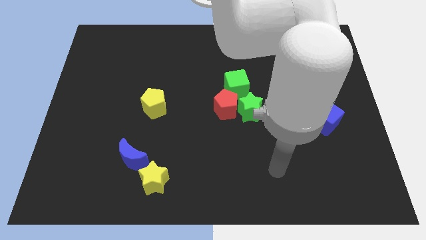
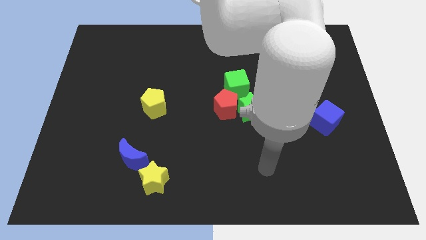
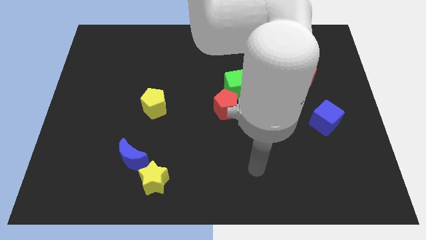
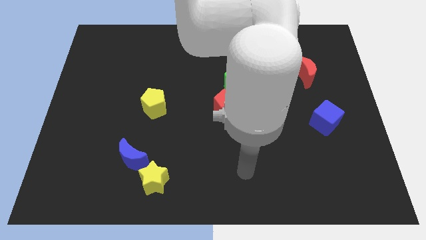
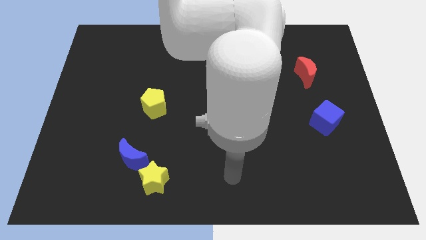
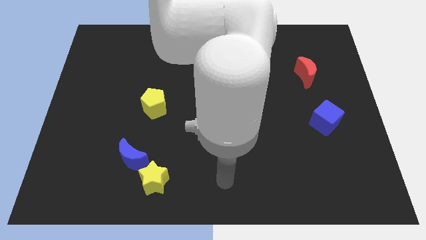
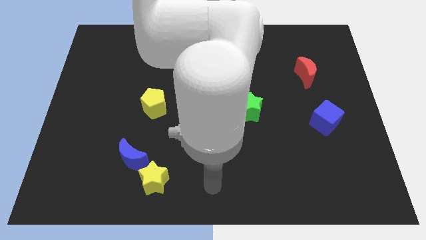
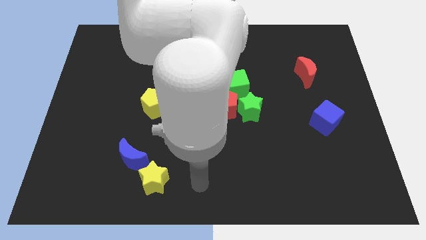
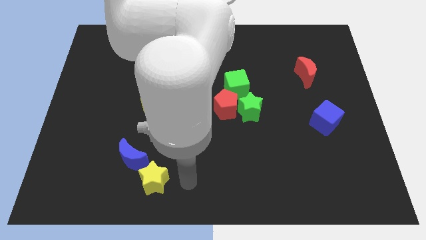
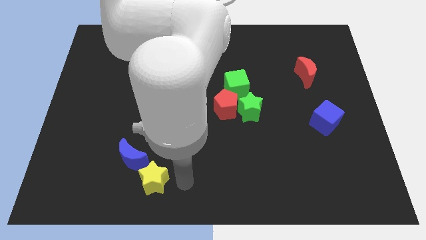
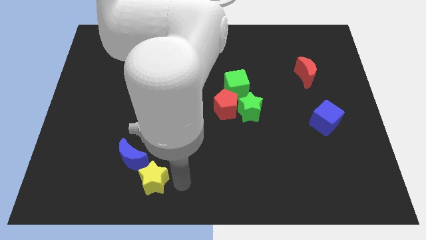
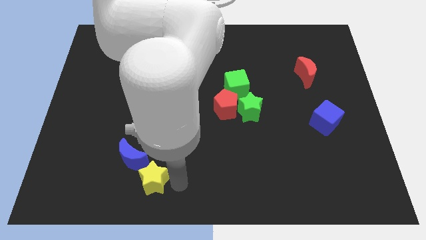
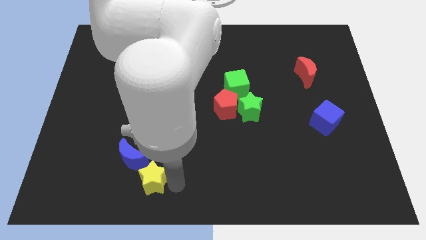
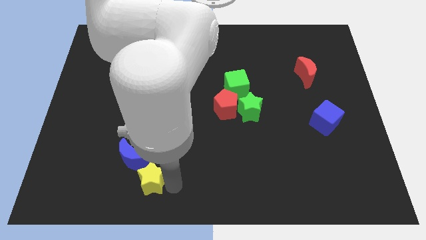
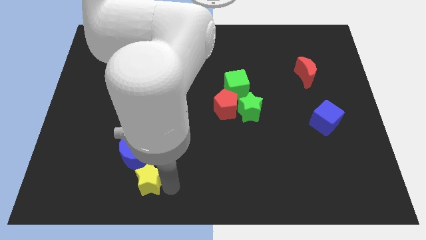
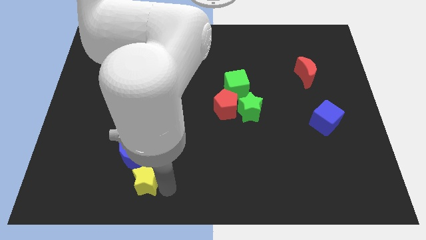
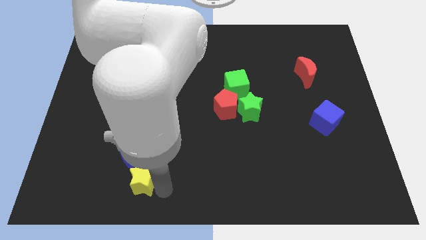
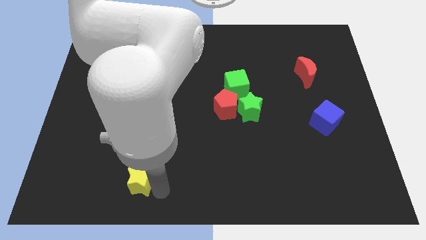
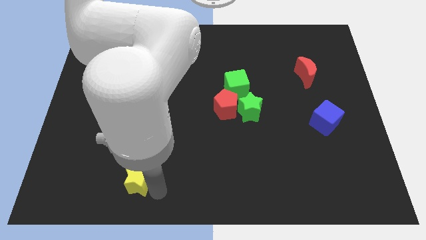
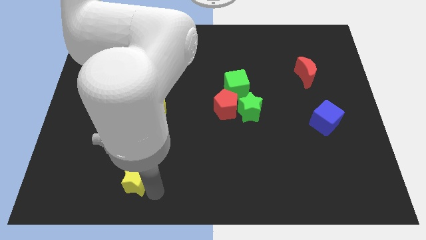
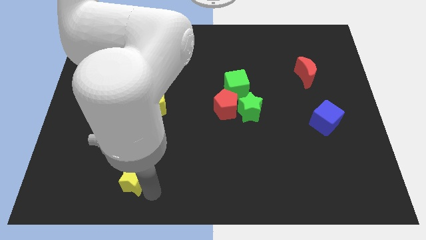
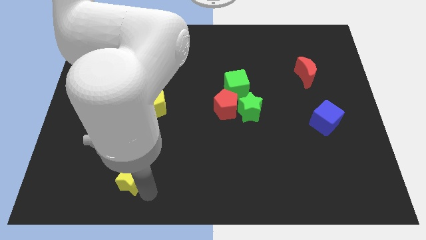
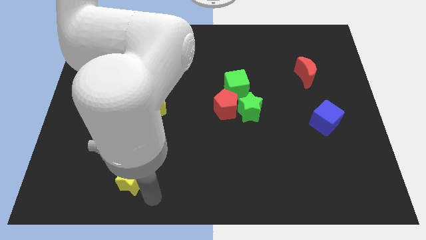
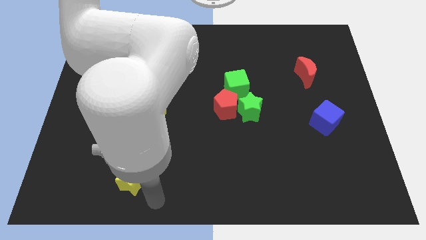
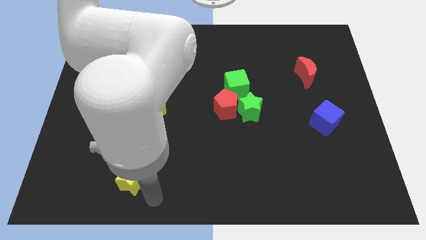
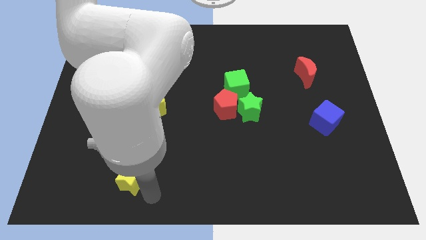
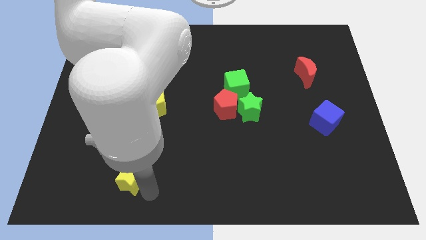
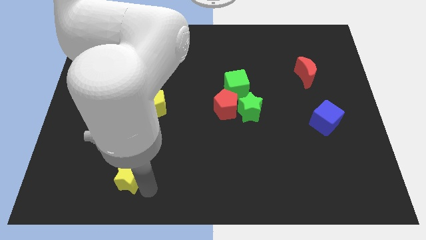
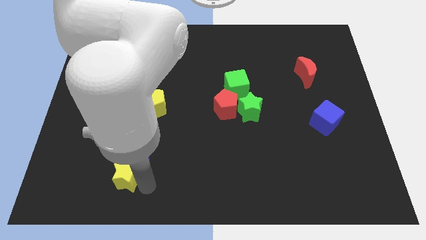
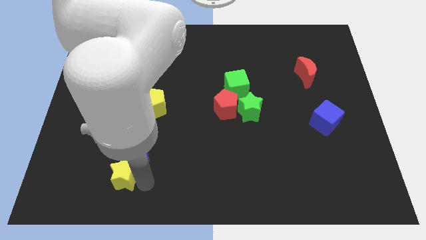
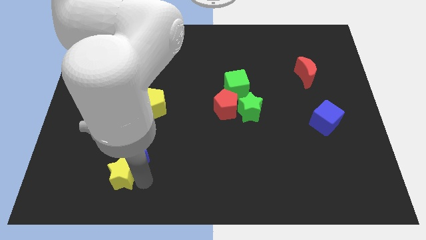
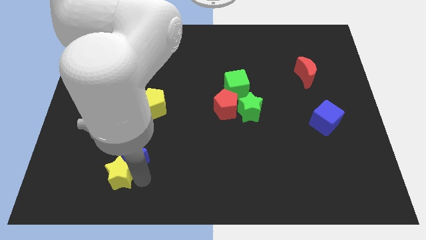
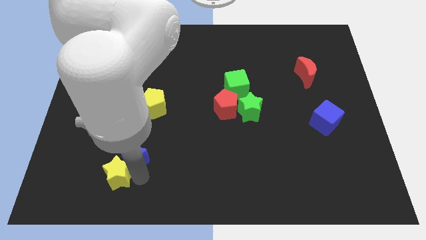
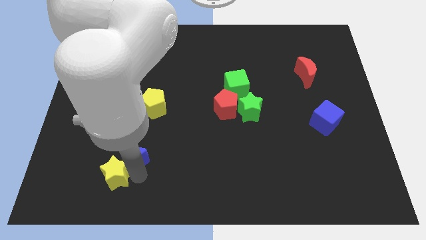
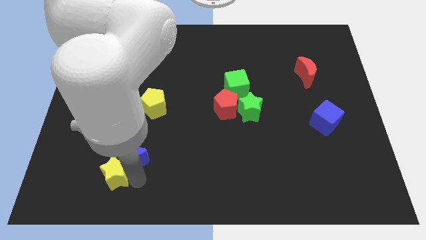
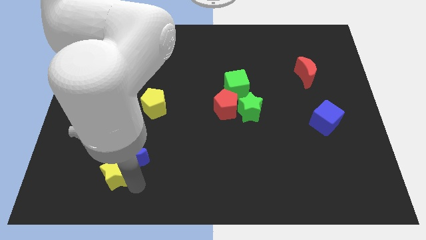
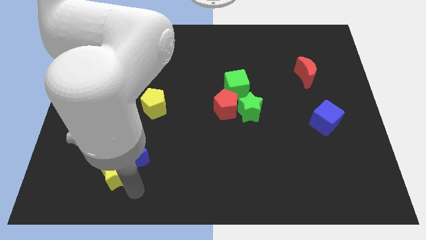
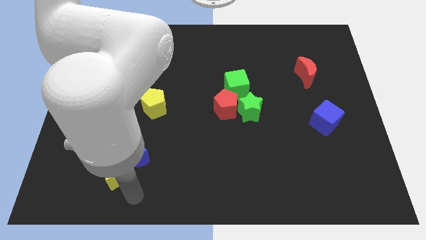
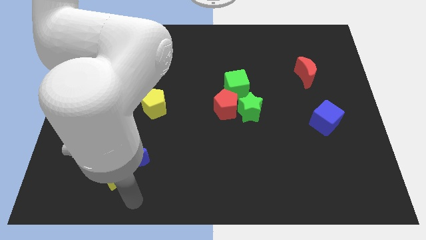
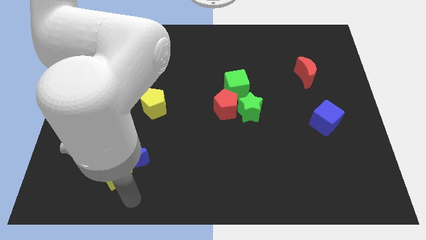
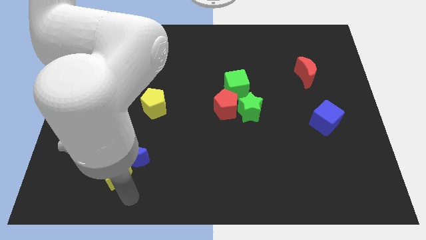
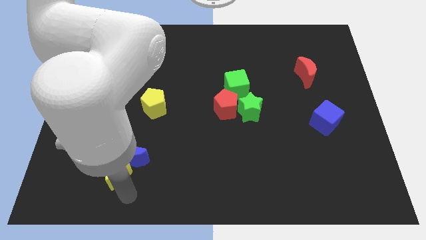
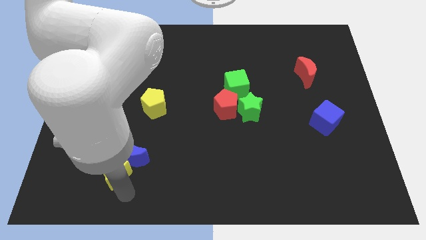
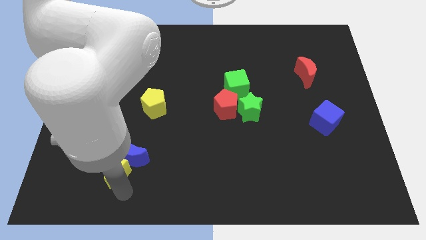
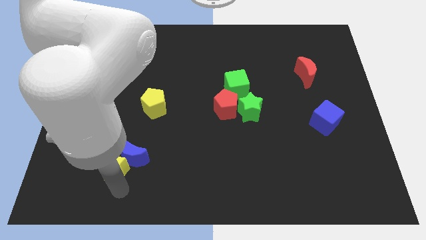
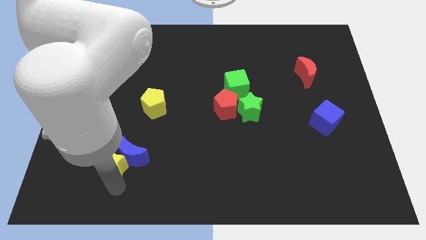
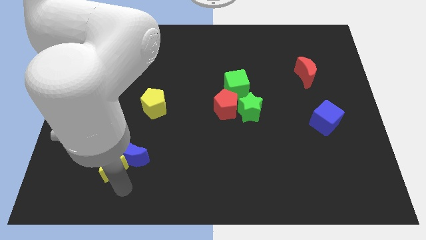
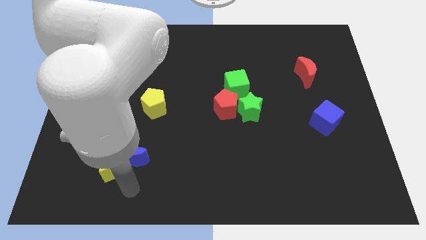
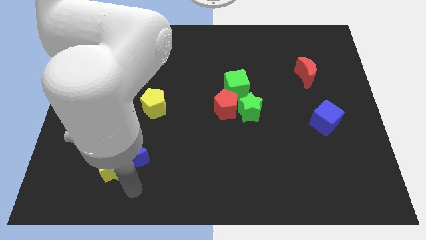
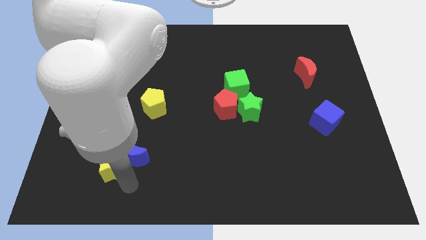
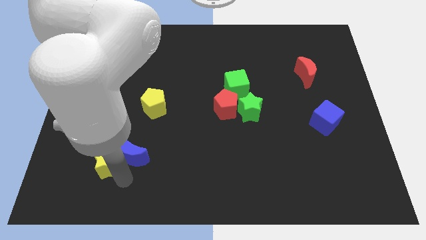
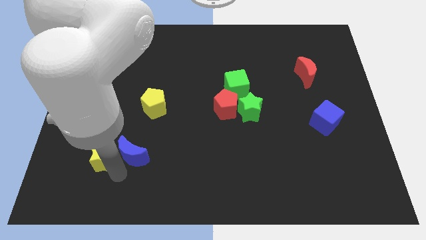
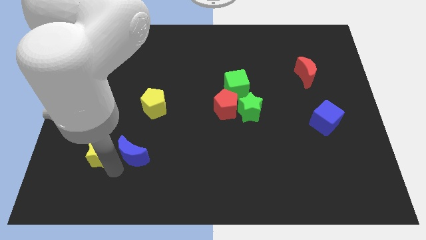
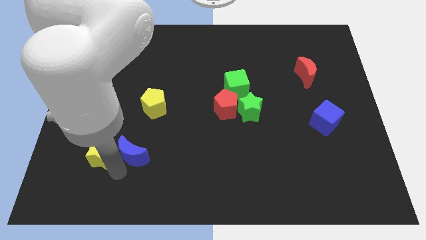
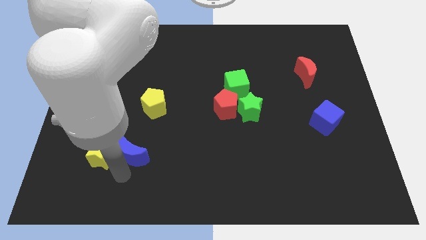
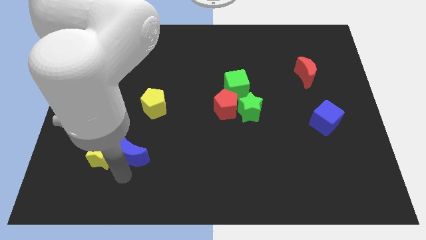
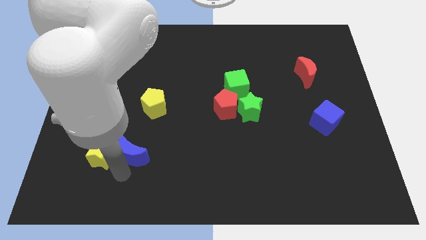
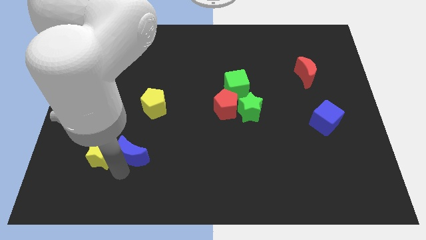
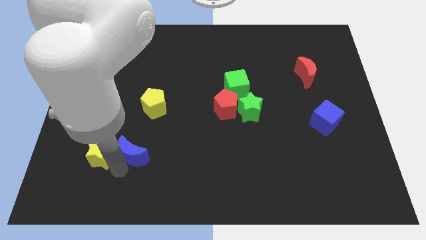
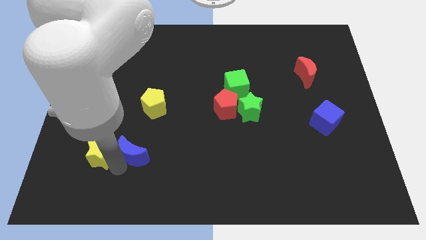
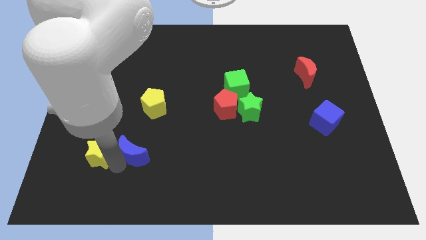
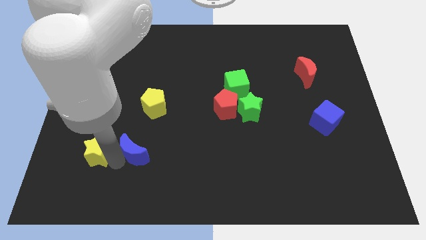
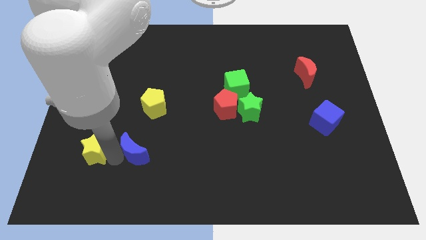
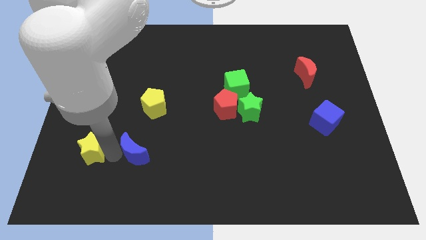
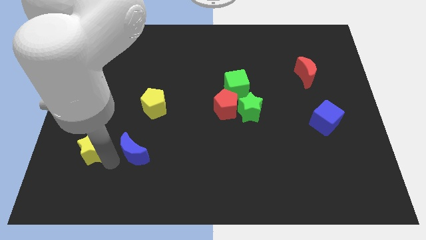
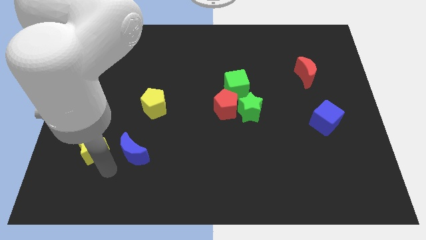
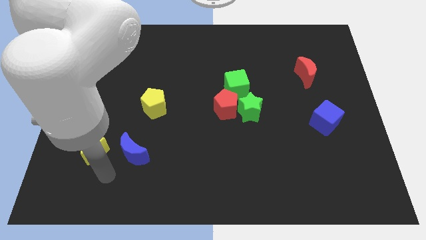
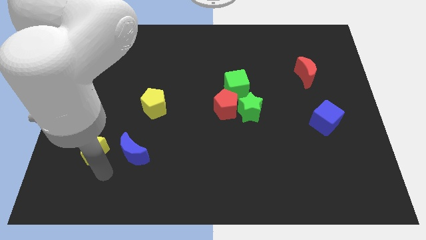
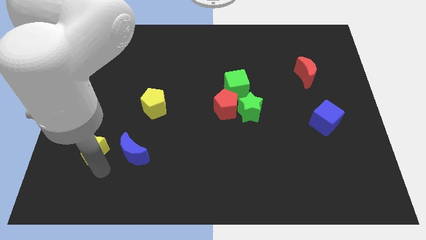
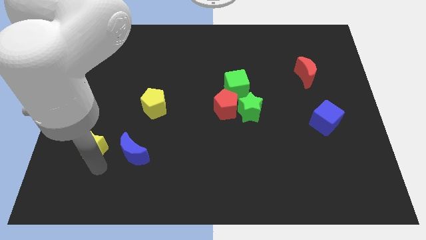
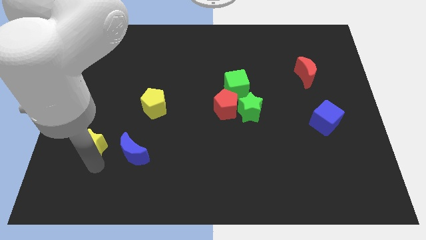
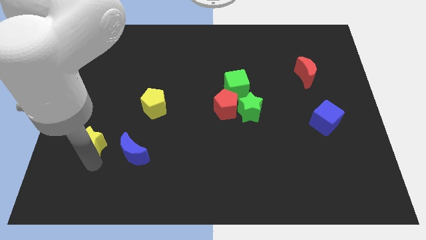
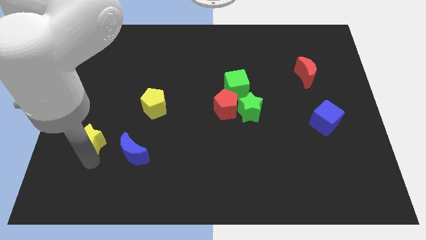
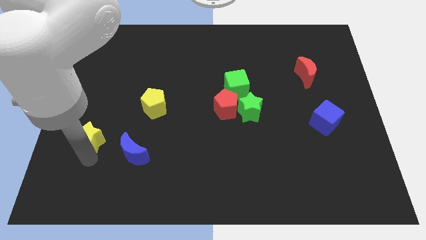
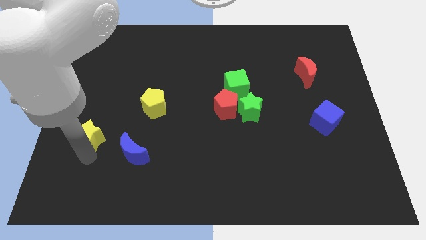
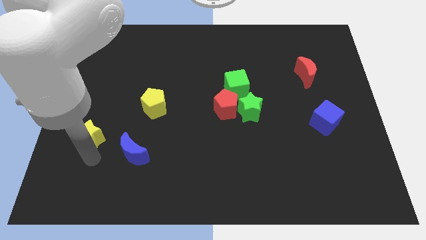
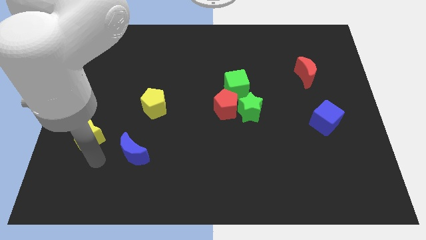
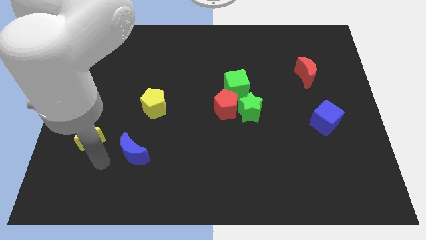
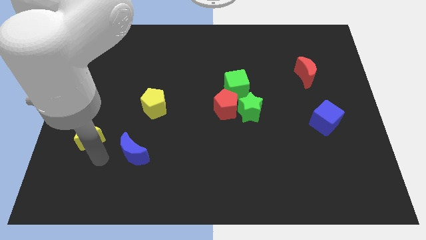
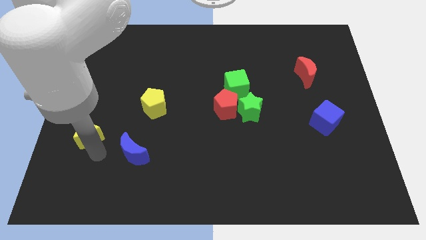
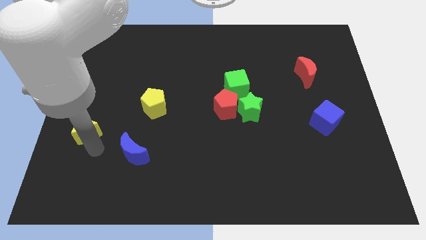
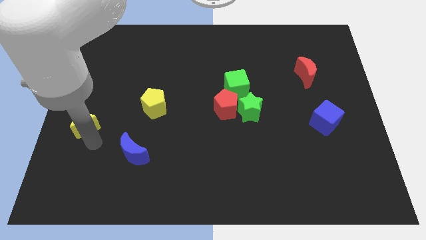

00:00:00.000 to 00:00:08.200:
put the yellow star to the left side
